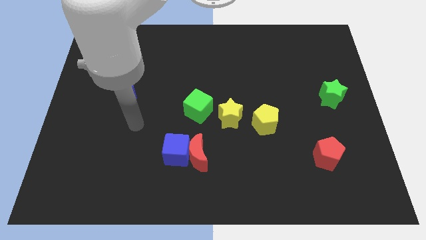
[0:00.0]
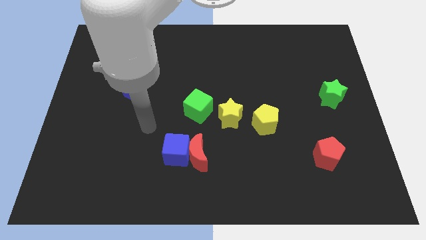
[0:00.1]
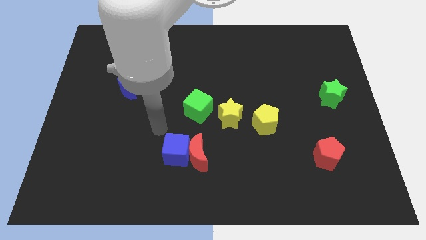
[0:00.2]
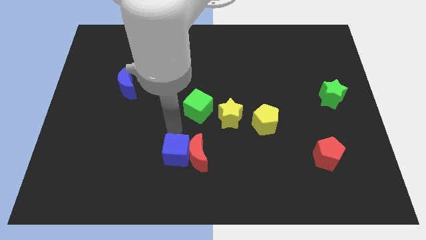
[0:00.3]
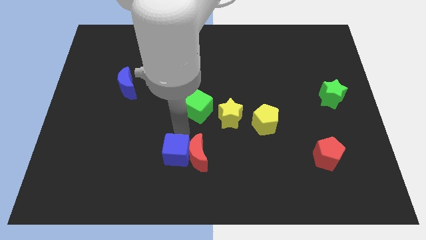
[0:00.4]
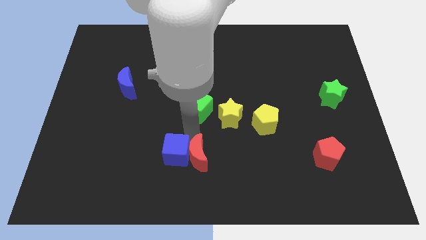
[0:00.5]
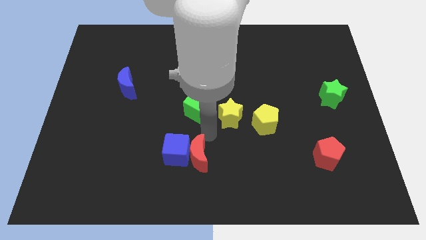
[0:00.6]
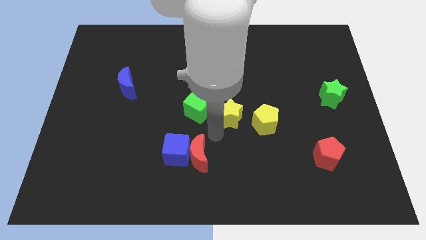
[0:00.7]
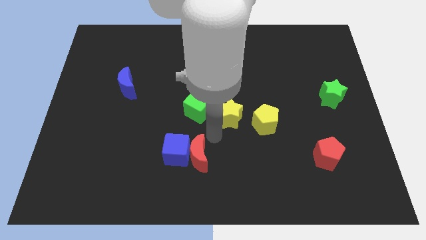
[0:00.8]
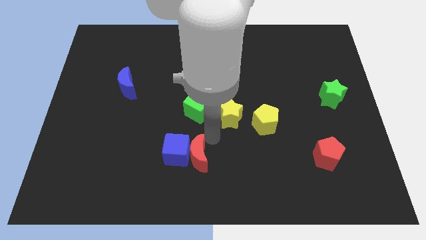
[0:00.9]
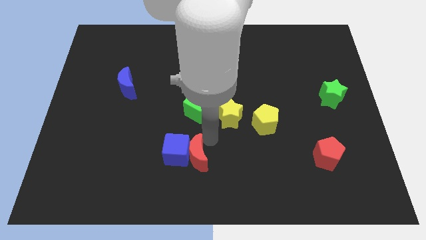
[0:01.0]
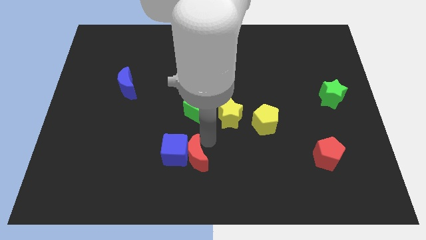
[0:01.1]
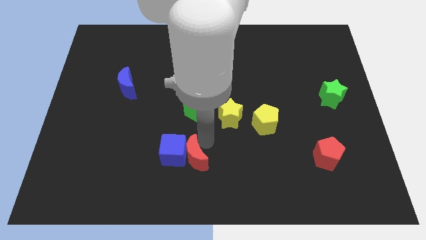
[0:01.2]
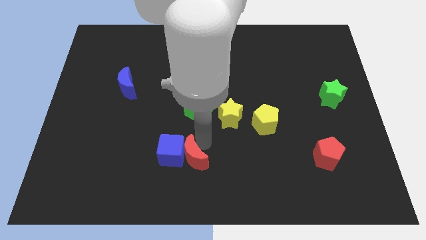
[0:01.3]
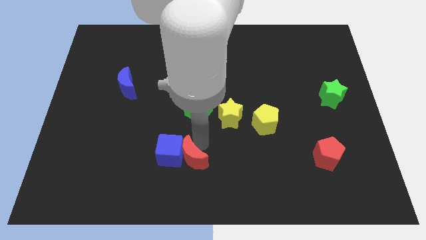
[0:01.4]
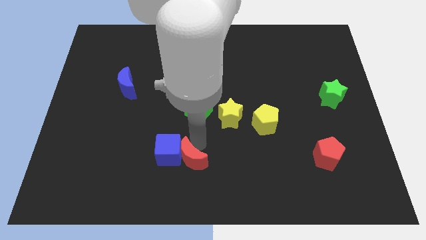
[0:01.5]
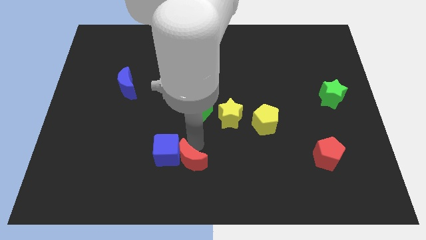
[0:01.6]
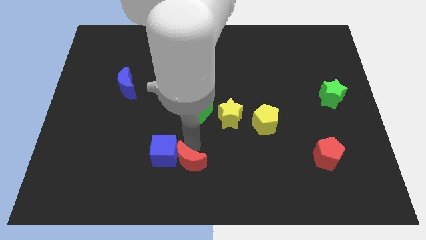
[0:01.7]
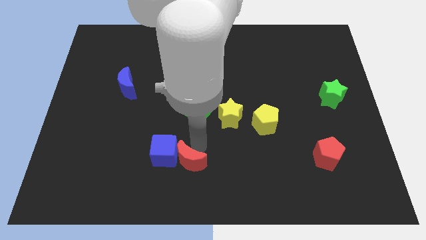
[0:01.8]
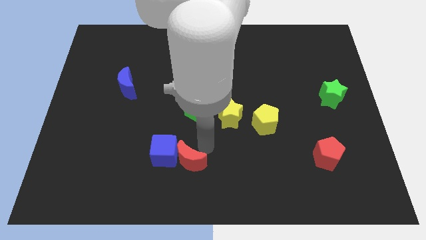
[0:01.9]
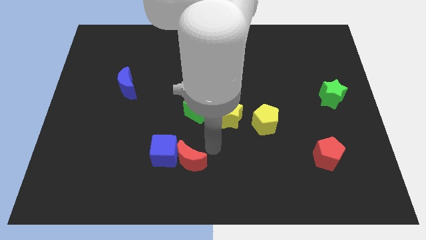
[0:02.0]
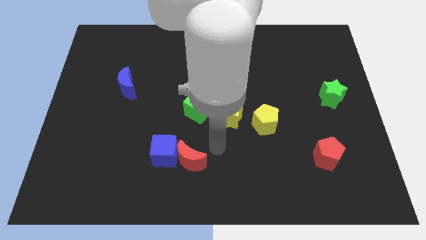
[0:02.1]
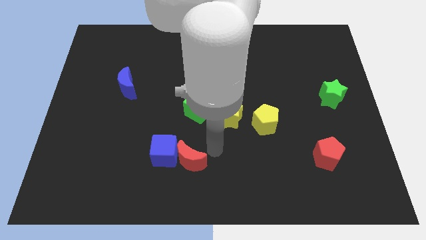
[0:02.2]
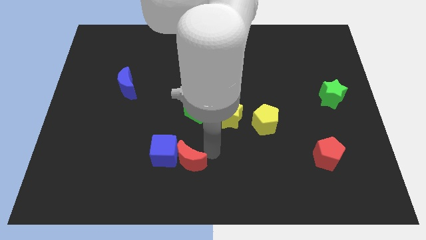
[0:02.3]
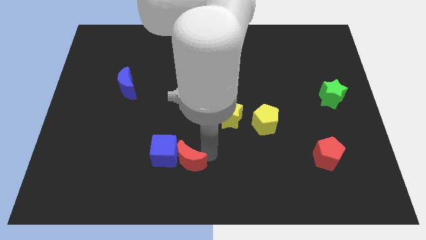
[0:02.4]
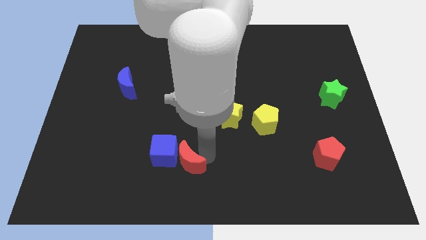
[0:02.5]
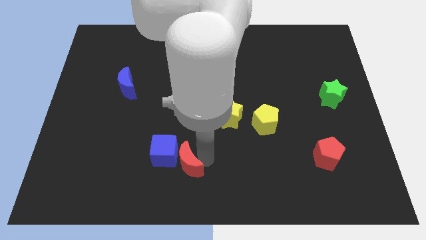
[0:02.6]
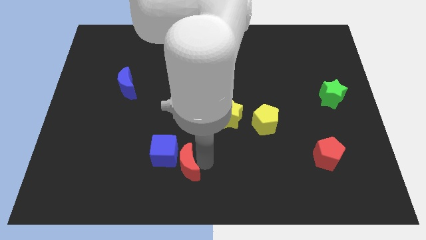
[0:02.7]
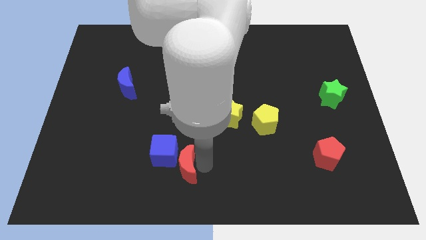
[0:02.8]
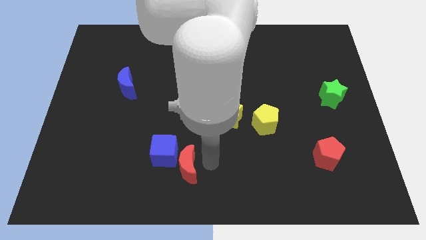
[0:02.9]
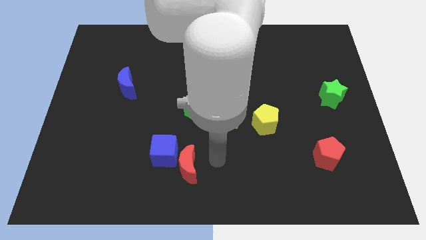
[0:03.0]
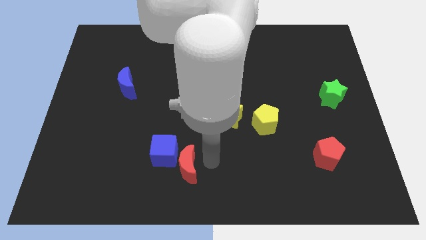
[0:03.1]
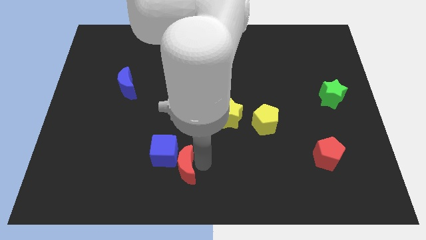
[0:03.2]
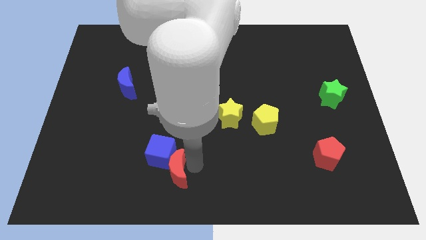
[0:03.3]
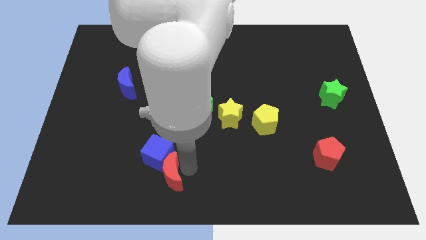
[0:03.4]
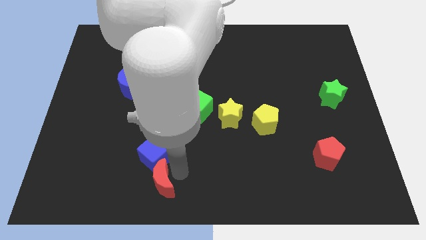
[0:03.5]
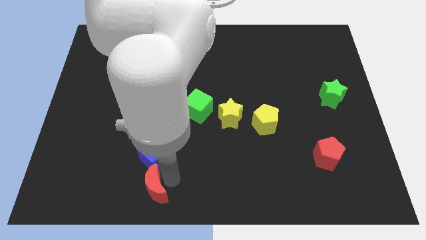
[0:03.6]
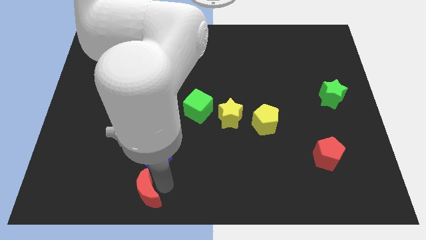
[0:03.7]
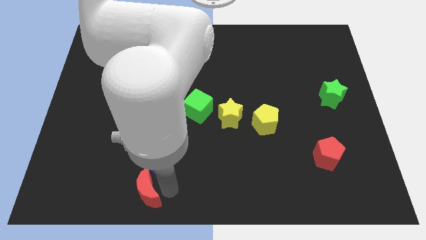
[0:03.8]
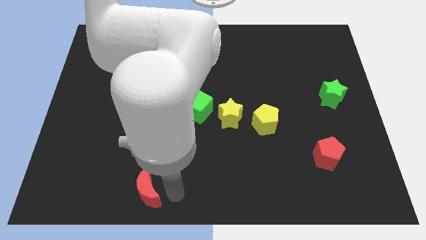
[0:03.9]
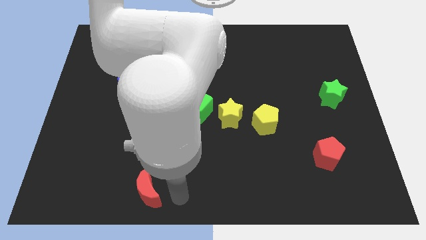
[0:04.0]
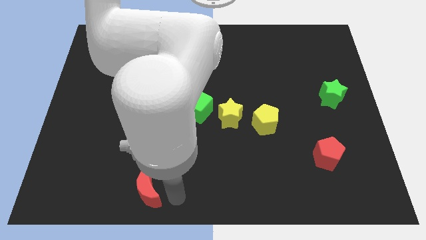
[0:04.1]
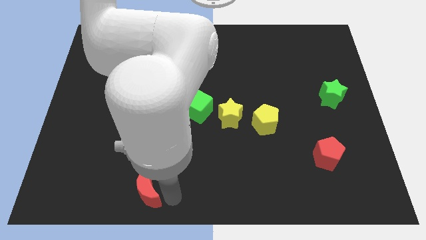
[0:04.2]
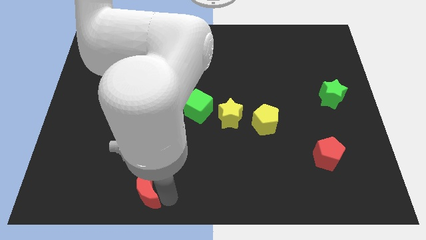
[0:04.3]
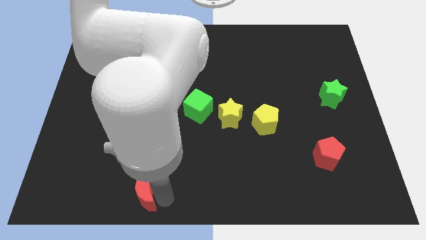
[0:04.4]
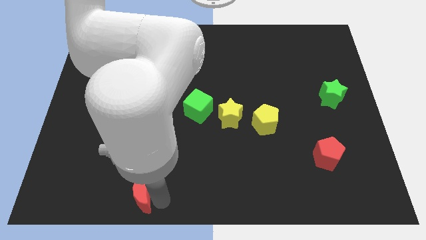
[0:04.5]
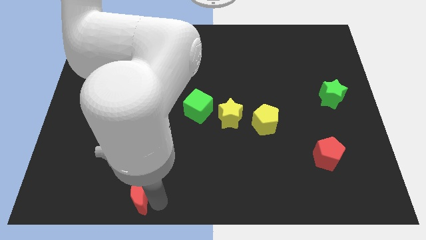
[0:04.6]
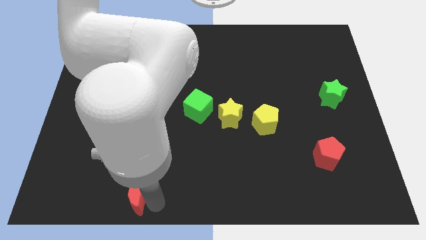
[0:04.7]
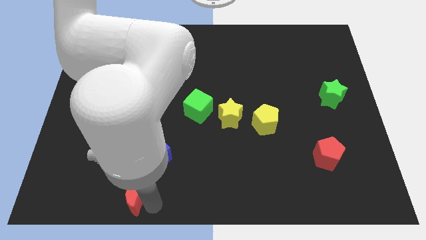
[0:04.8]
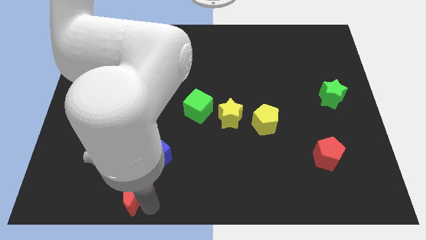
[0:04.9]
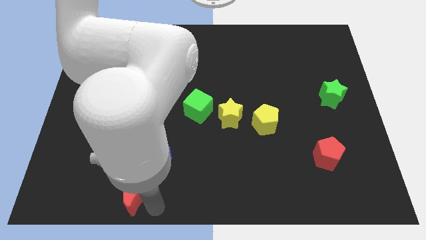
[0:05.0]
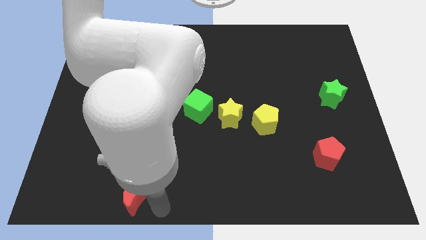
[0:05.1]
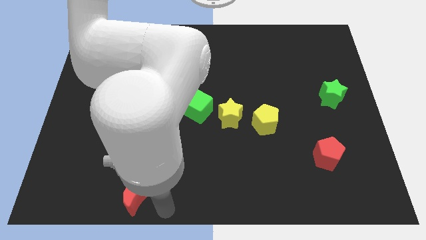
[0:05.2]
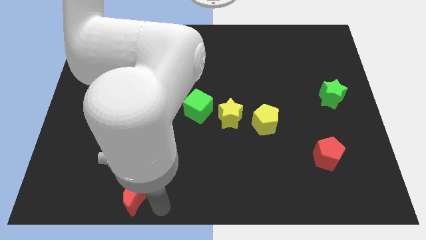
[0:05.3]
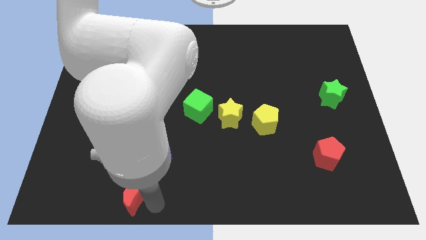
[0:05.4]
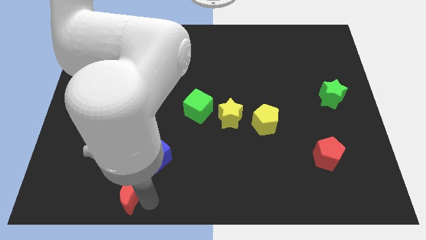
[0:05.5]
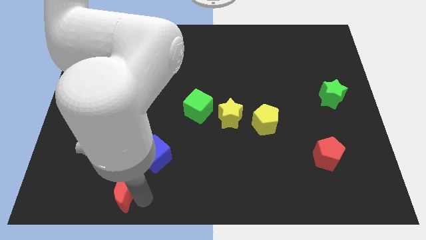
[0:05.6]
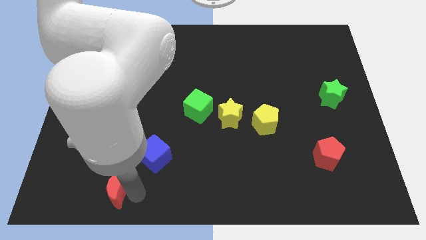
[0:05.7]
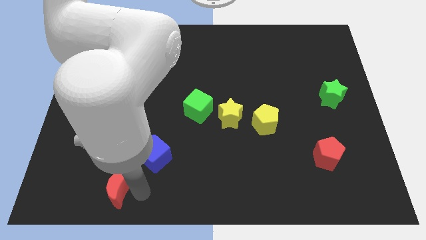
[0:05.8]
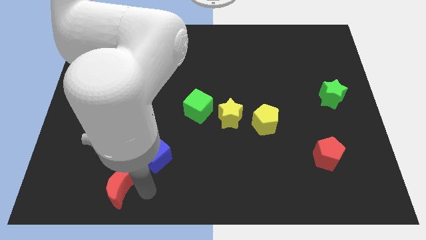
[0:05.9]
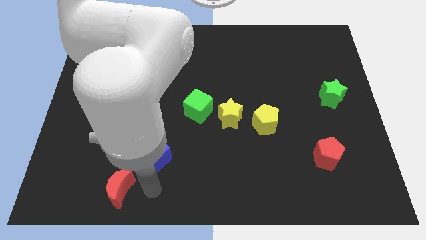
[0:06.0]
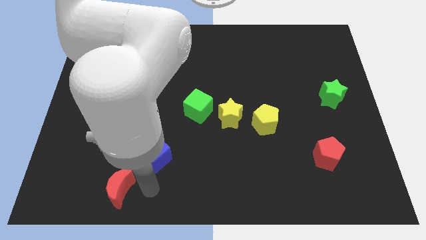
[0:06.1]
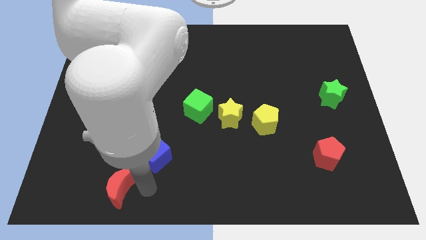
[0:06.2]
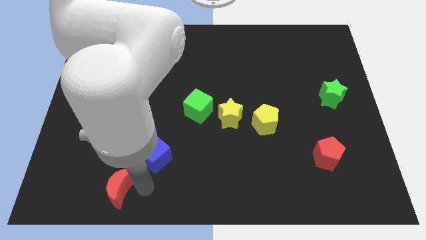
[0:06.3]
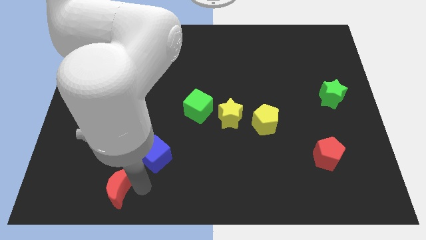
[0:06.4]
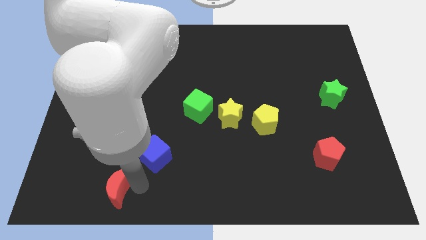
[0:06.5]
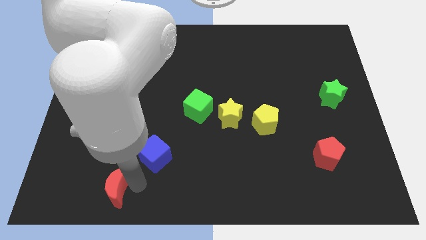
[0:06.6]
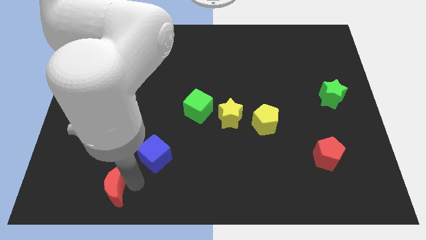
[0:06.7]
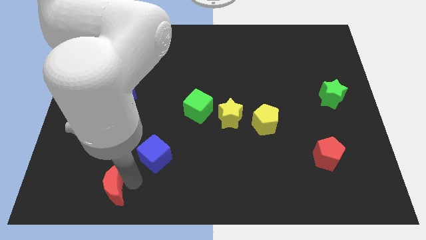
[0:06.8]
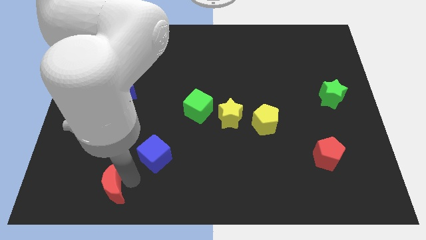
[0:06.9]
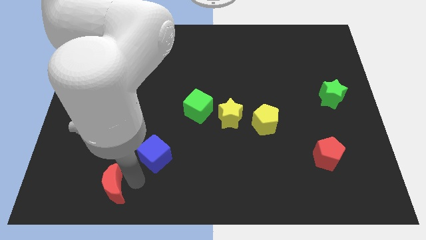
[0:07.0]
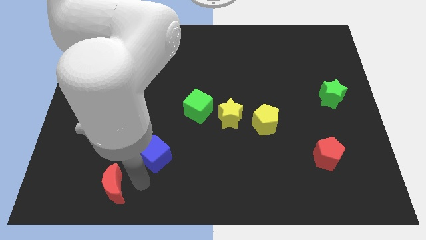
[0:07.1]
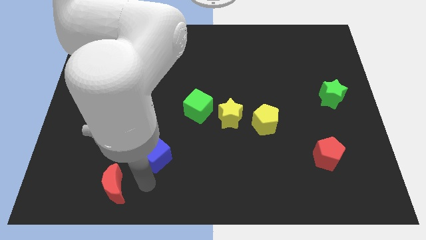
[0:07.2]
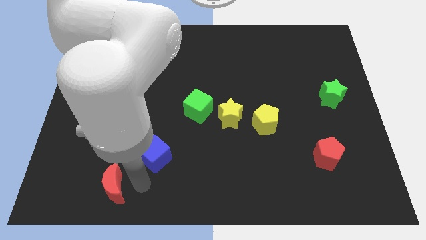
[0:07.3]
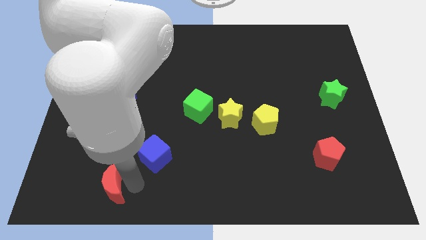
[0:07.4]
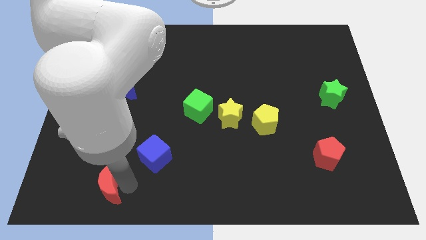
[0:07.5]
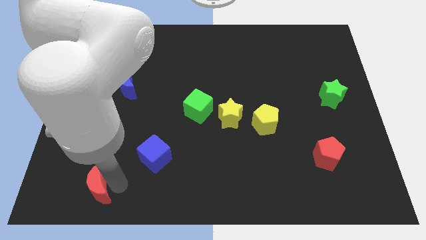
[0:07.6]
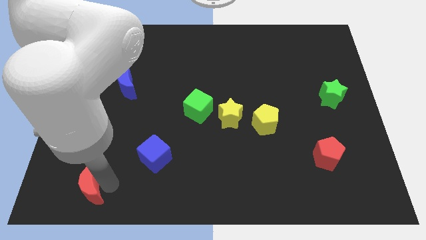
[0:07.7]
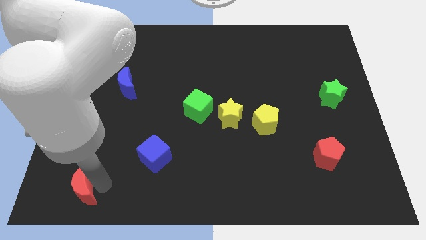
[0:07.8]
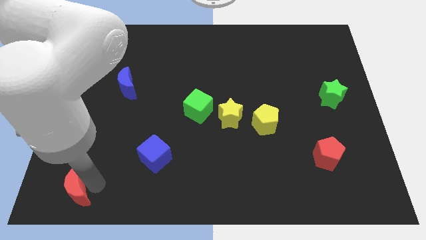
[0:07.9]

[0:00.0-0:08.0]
slide the red moon to the lower left corner
